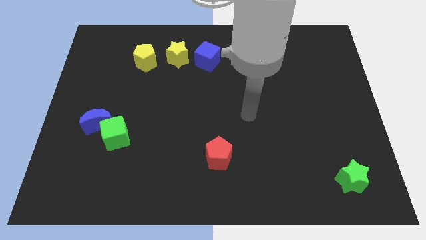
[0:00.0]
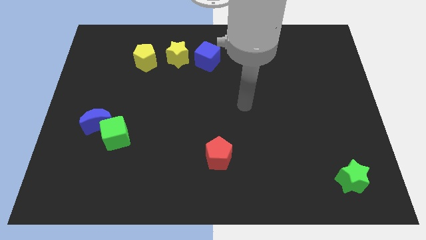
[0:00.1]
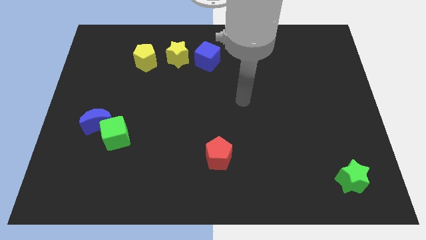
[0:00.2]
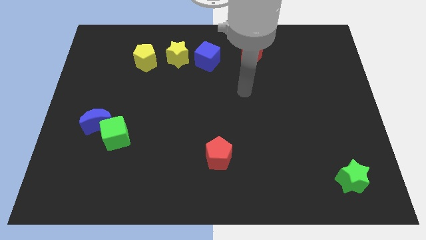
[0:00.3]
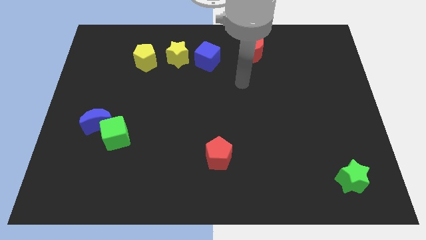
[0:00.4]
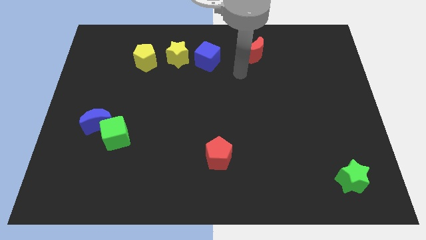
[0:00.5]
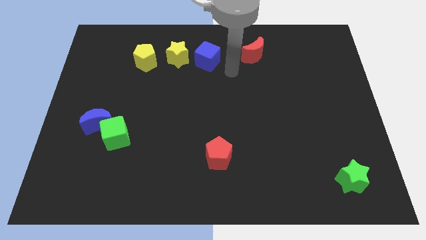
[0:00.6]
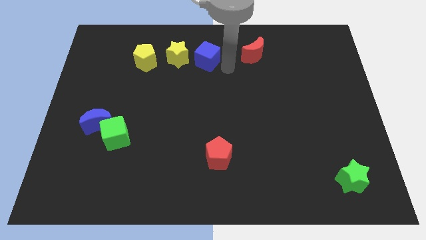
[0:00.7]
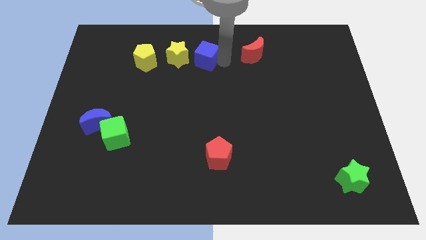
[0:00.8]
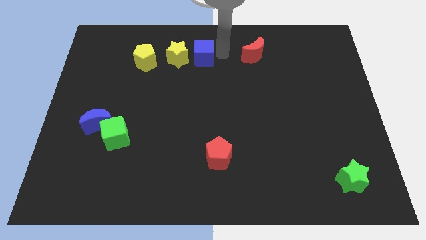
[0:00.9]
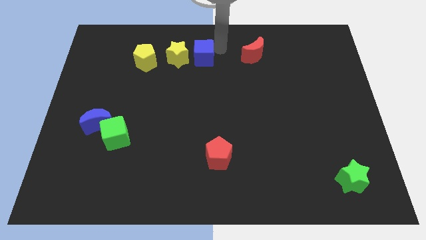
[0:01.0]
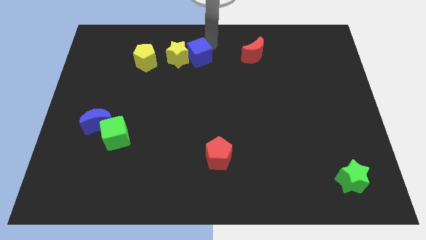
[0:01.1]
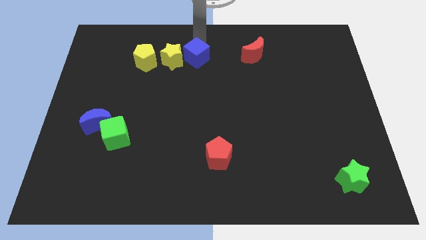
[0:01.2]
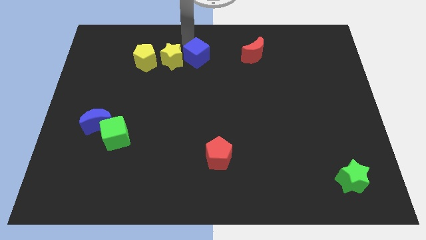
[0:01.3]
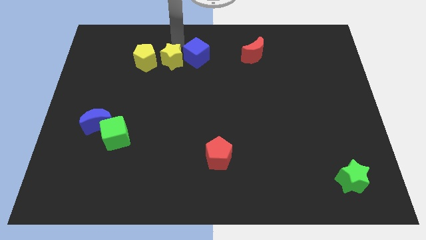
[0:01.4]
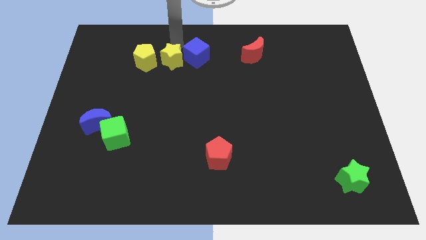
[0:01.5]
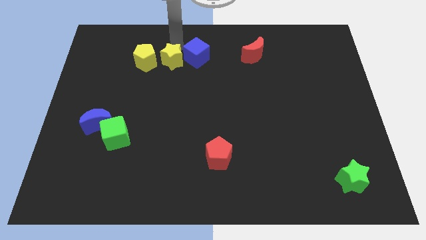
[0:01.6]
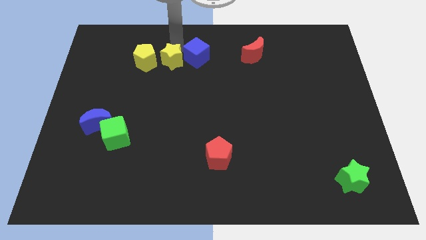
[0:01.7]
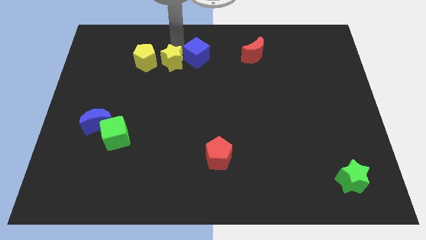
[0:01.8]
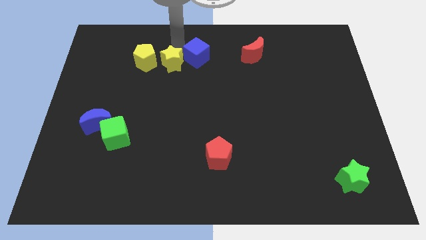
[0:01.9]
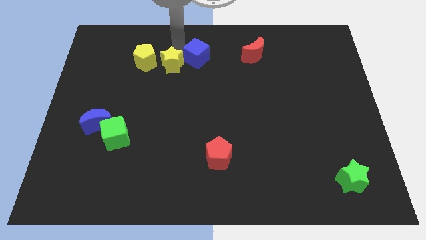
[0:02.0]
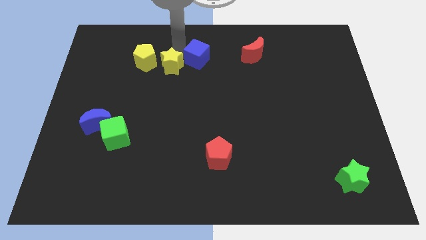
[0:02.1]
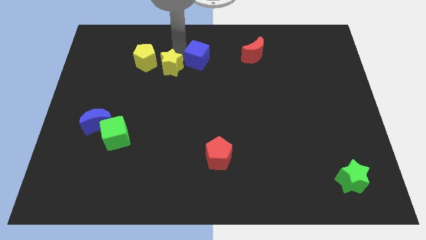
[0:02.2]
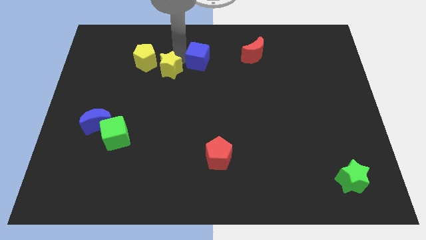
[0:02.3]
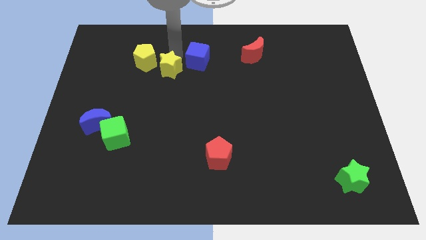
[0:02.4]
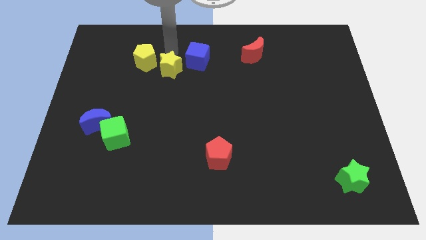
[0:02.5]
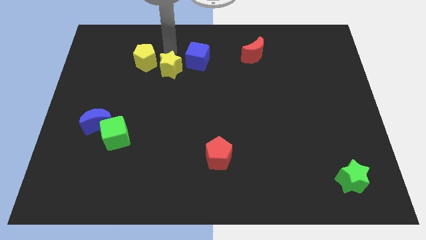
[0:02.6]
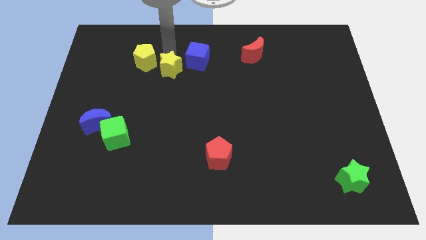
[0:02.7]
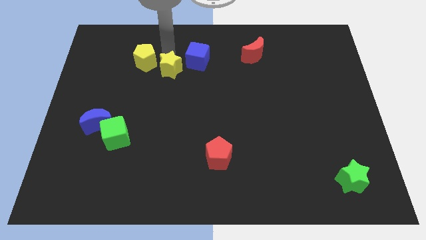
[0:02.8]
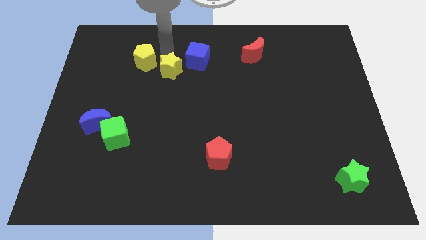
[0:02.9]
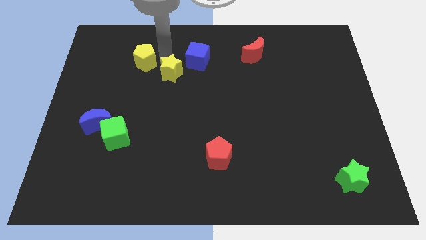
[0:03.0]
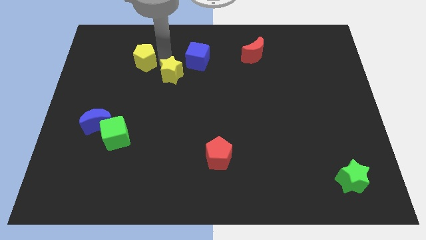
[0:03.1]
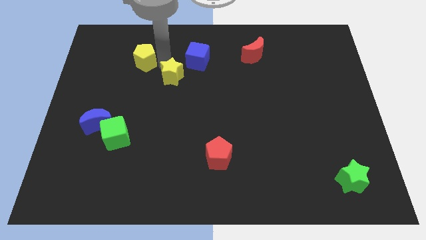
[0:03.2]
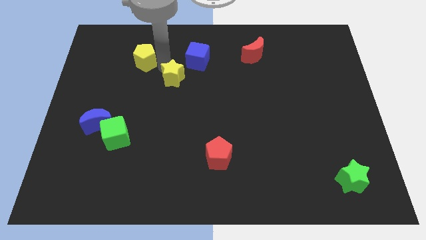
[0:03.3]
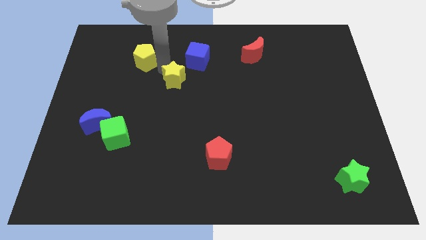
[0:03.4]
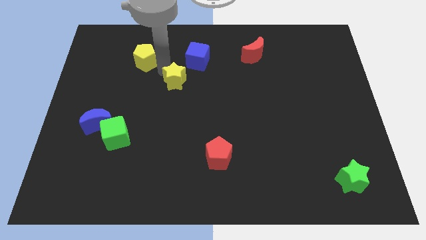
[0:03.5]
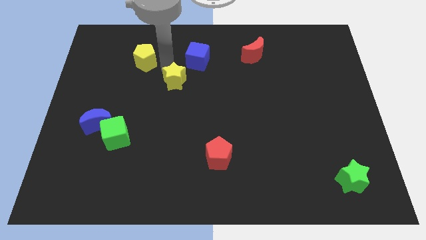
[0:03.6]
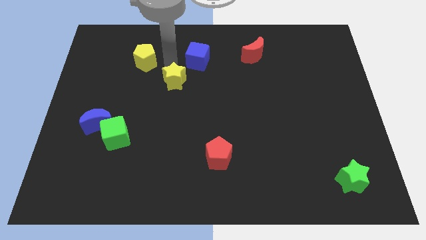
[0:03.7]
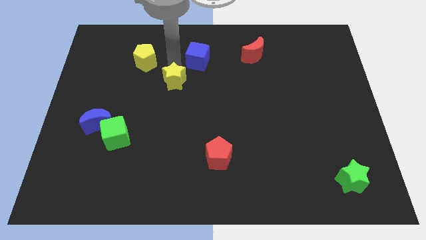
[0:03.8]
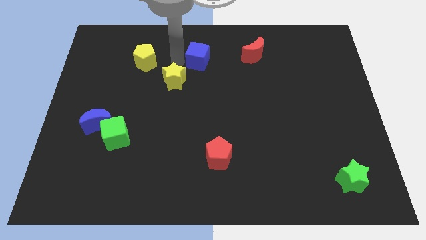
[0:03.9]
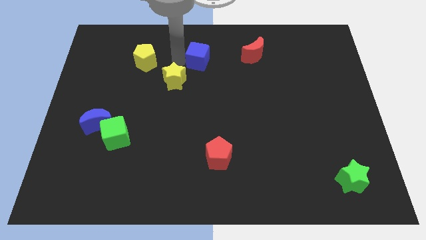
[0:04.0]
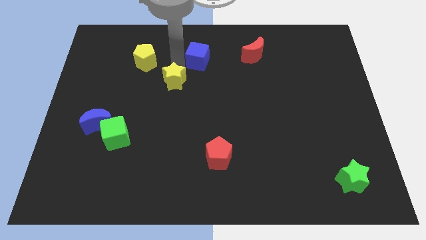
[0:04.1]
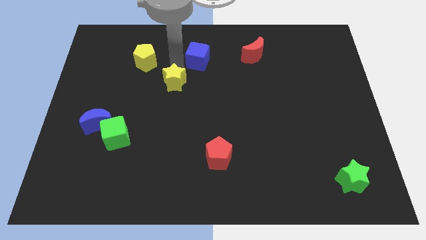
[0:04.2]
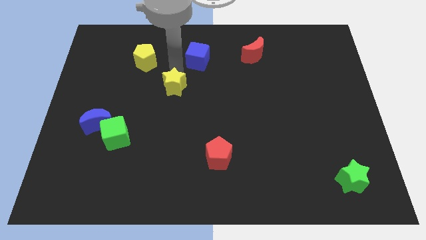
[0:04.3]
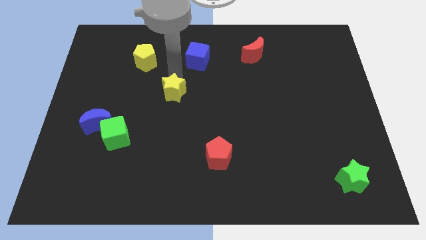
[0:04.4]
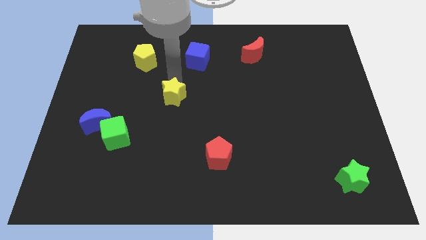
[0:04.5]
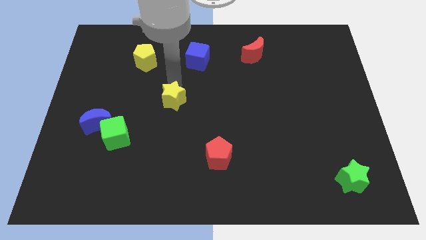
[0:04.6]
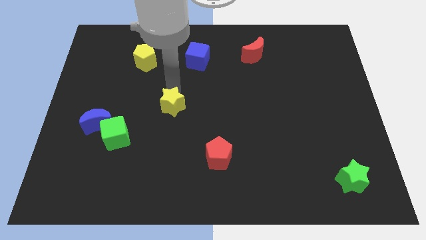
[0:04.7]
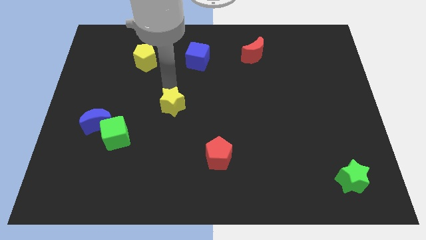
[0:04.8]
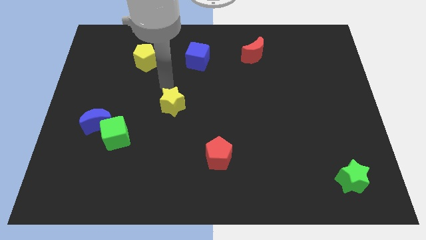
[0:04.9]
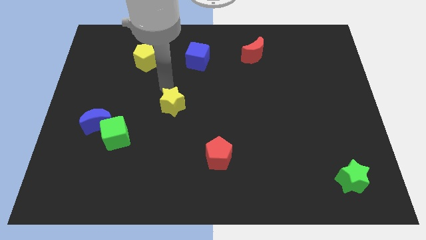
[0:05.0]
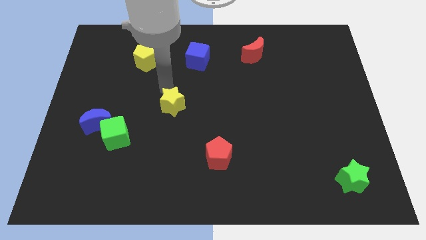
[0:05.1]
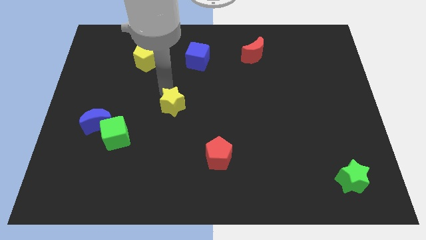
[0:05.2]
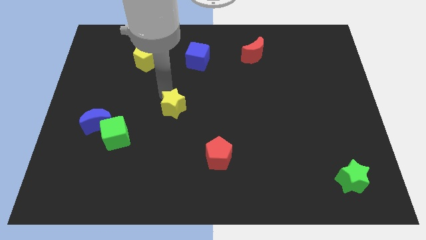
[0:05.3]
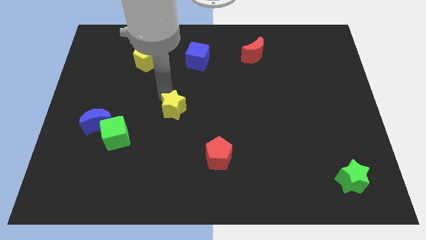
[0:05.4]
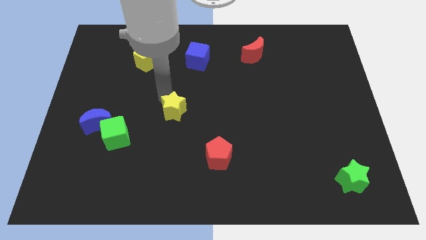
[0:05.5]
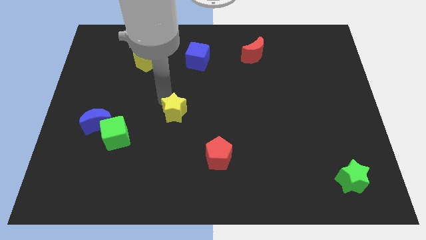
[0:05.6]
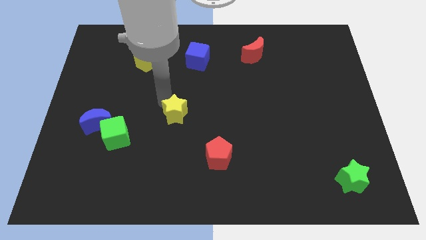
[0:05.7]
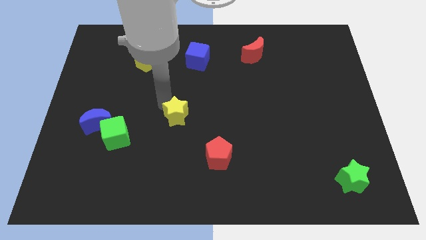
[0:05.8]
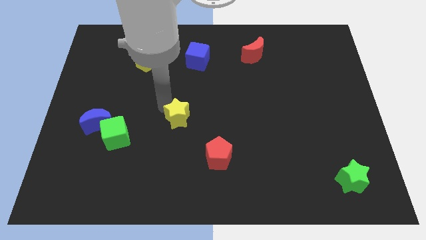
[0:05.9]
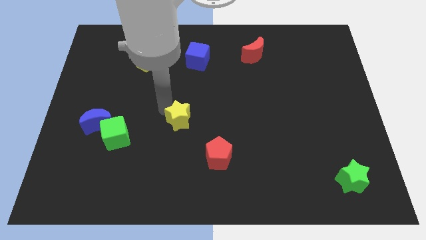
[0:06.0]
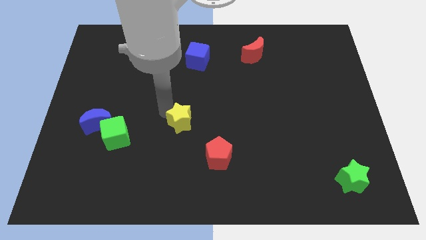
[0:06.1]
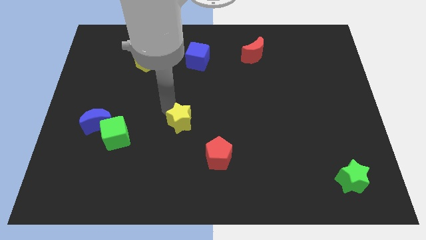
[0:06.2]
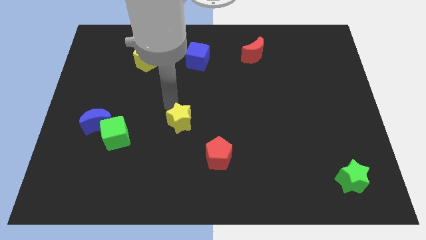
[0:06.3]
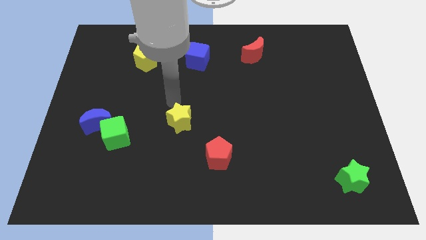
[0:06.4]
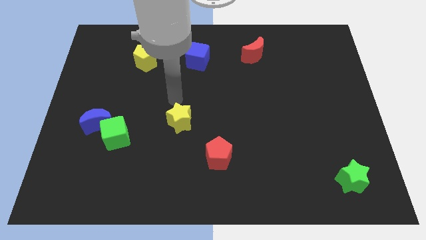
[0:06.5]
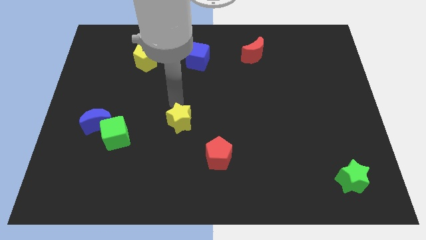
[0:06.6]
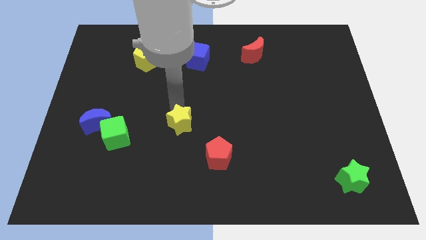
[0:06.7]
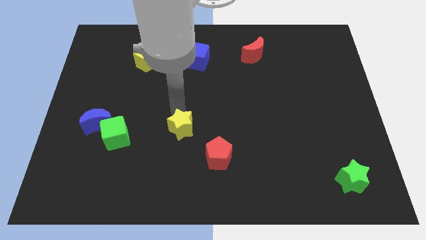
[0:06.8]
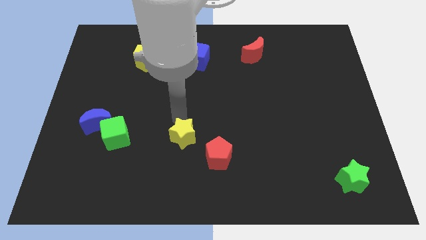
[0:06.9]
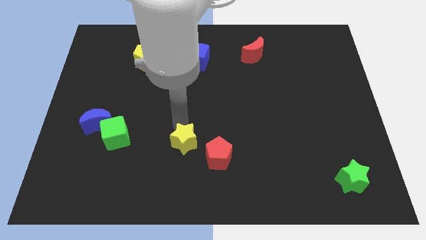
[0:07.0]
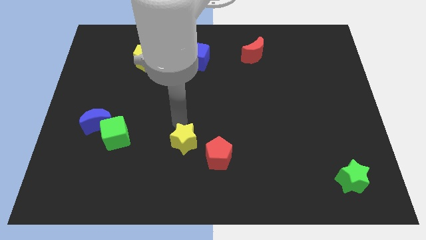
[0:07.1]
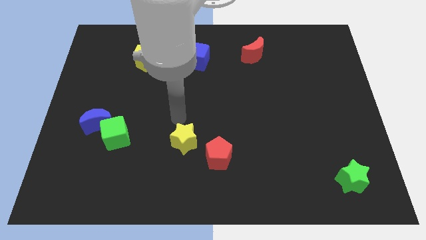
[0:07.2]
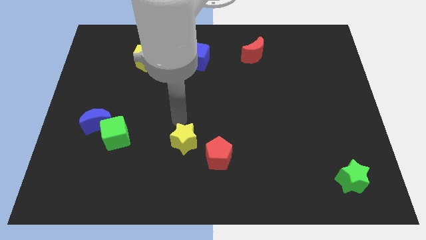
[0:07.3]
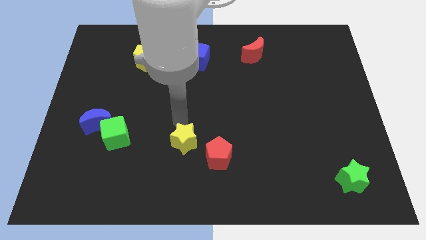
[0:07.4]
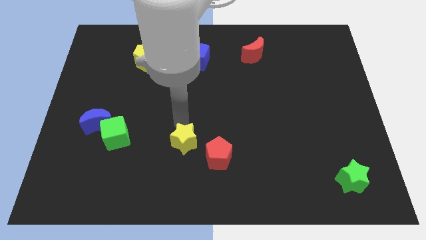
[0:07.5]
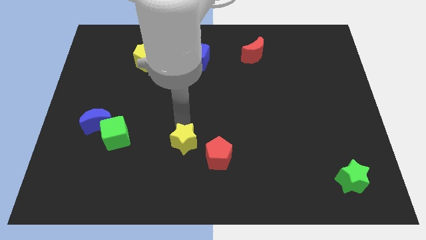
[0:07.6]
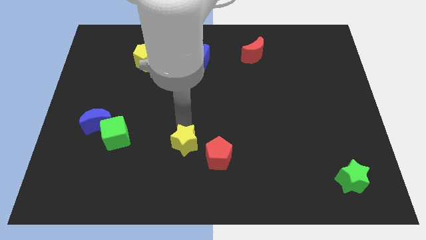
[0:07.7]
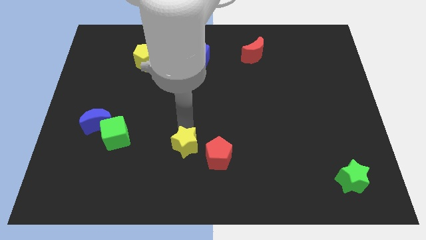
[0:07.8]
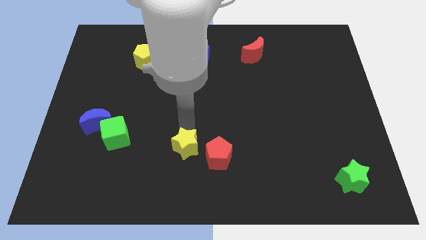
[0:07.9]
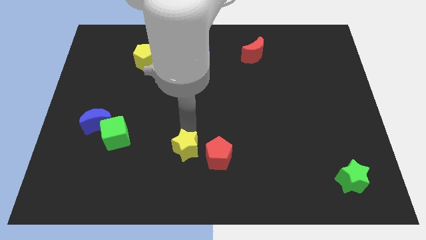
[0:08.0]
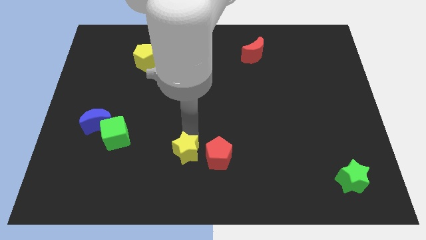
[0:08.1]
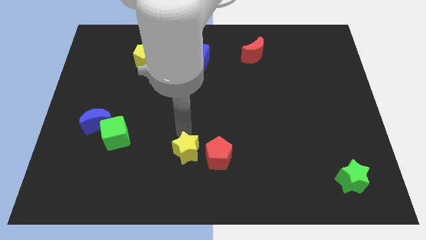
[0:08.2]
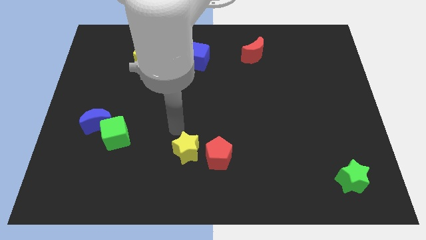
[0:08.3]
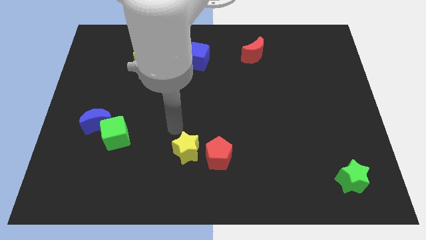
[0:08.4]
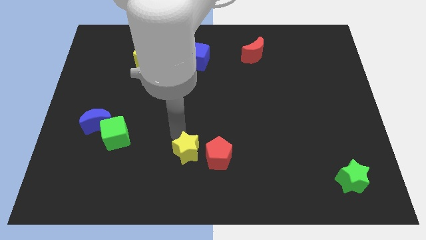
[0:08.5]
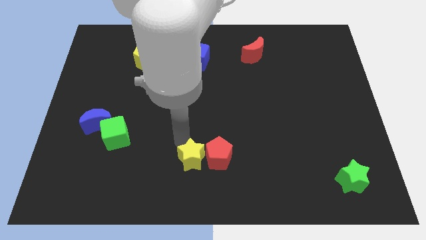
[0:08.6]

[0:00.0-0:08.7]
push the yellow star to the bottom side
